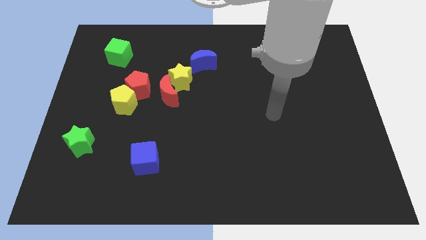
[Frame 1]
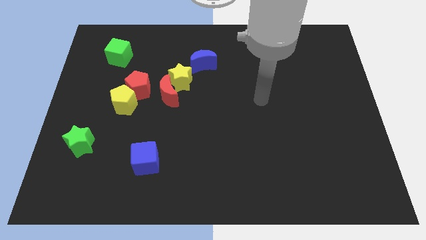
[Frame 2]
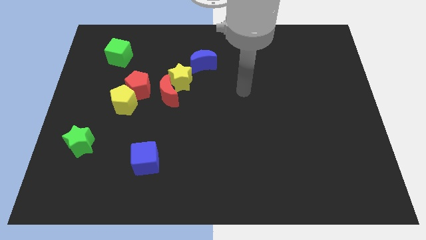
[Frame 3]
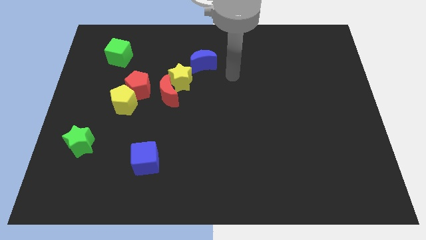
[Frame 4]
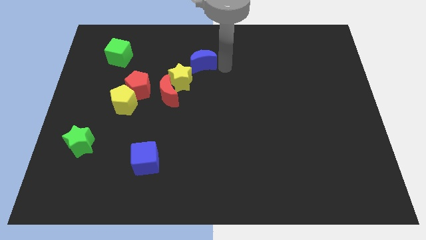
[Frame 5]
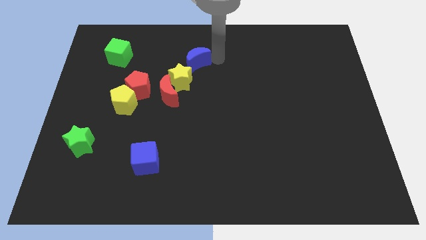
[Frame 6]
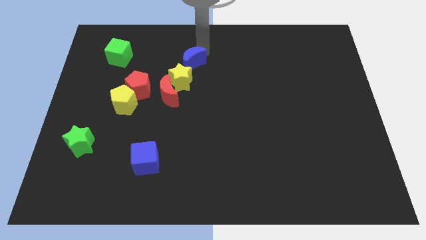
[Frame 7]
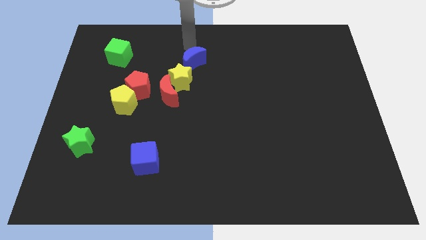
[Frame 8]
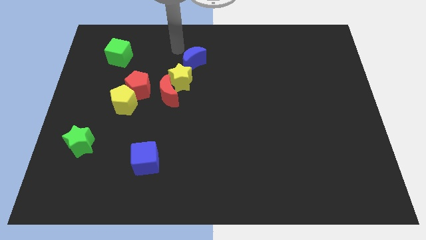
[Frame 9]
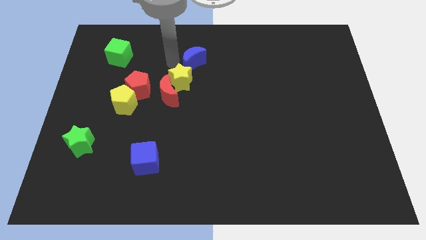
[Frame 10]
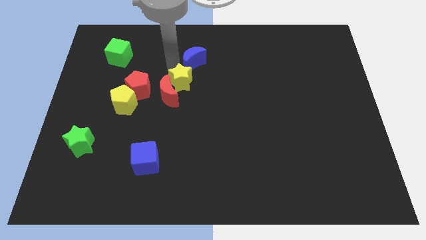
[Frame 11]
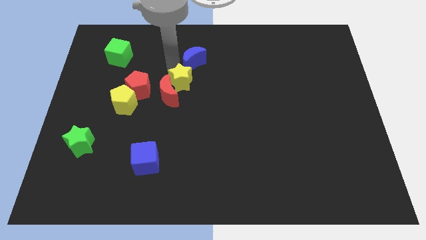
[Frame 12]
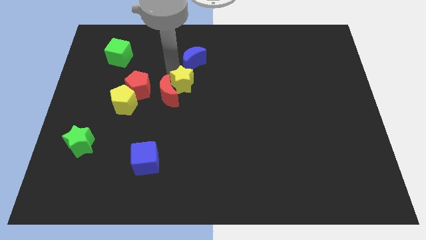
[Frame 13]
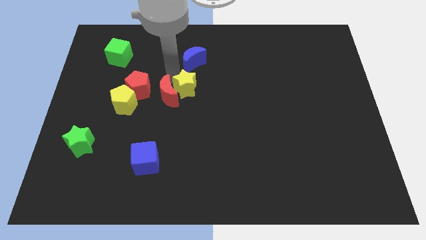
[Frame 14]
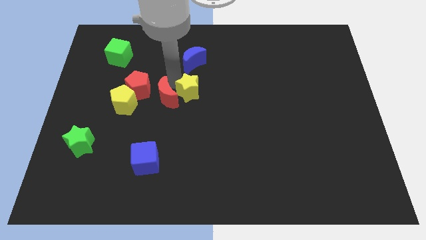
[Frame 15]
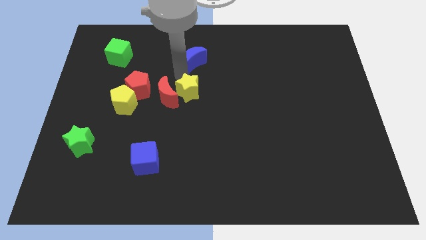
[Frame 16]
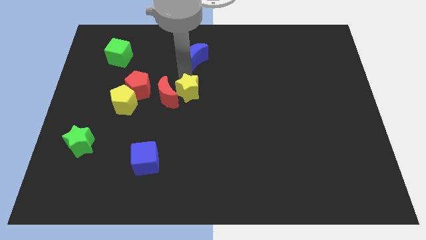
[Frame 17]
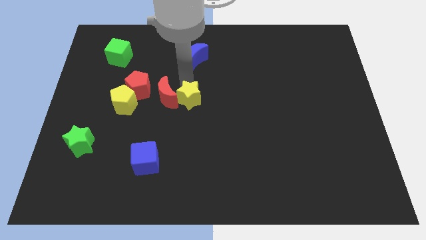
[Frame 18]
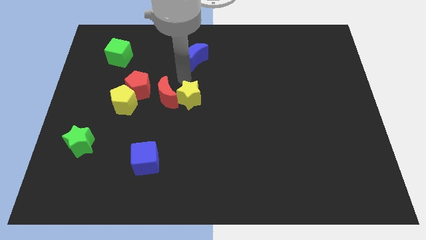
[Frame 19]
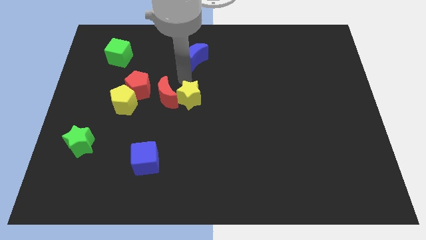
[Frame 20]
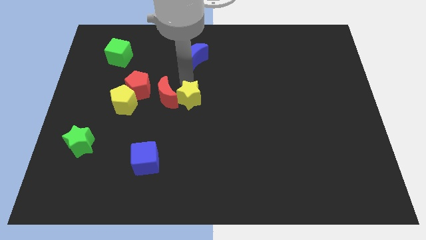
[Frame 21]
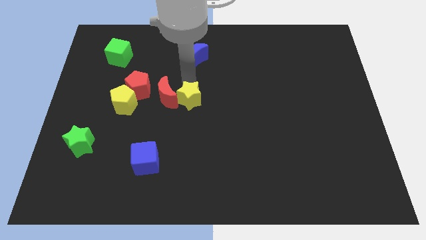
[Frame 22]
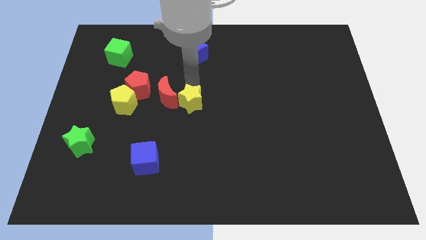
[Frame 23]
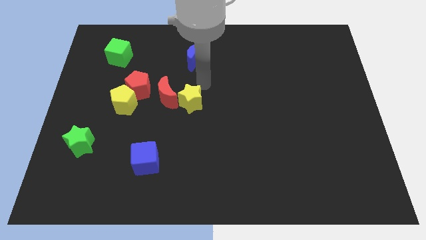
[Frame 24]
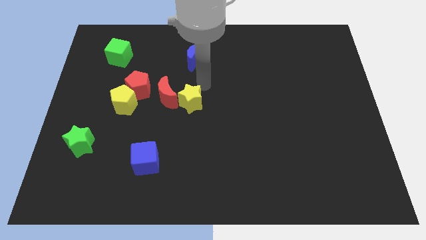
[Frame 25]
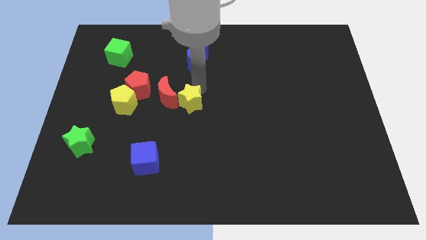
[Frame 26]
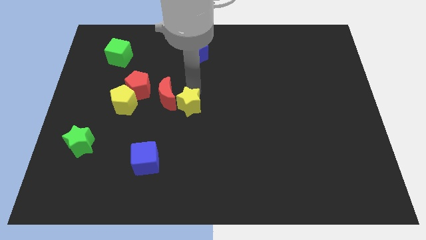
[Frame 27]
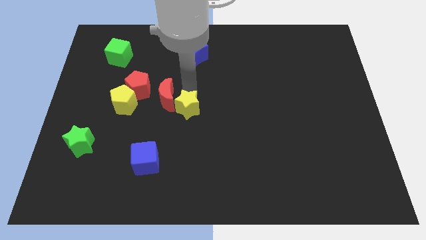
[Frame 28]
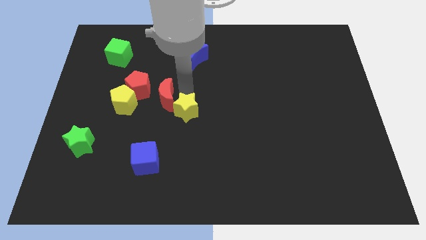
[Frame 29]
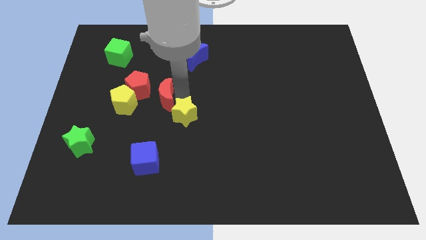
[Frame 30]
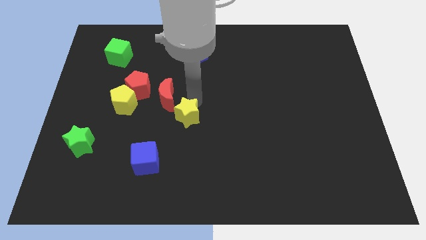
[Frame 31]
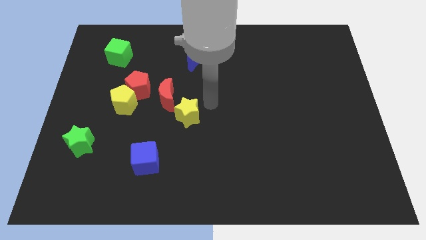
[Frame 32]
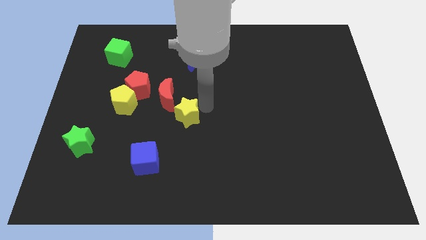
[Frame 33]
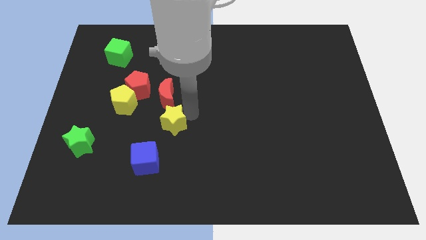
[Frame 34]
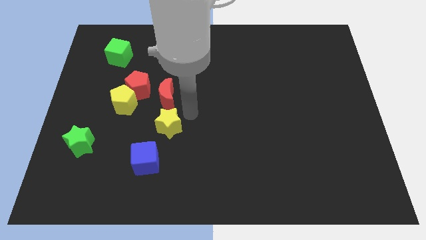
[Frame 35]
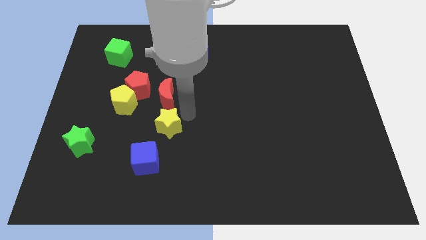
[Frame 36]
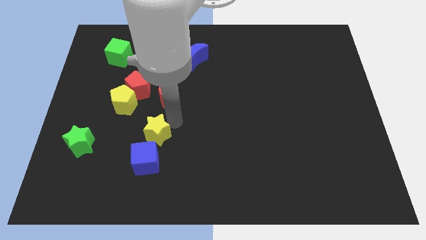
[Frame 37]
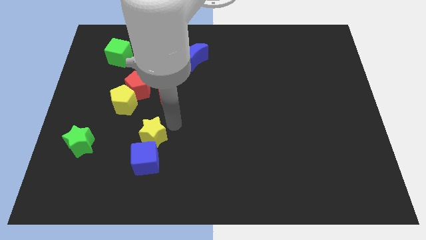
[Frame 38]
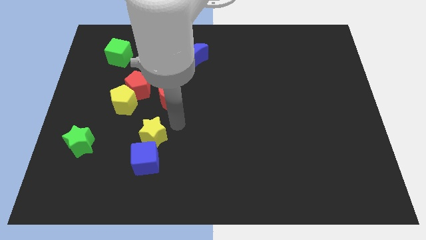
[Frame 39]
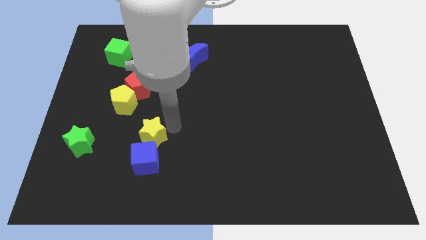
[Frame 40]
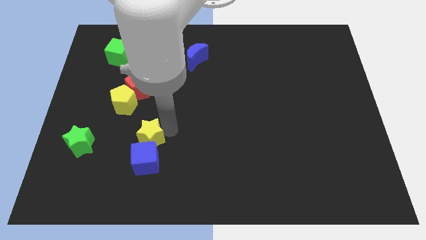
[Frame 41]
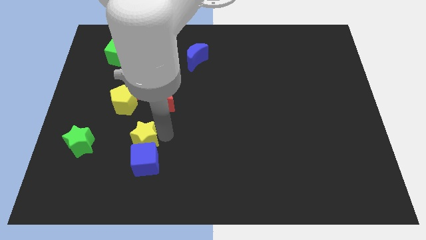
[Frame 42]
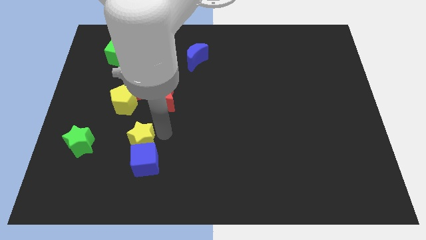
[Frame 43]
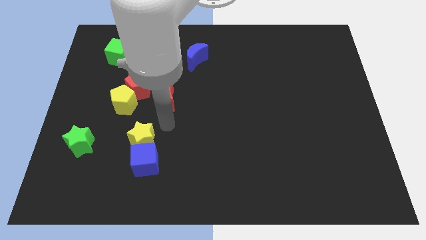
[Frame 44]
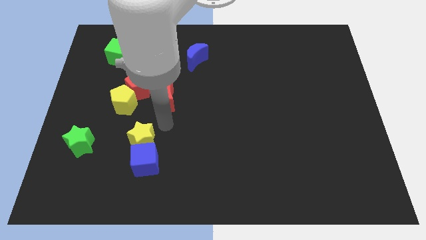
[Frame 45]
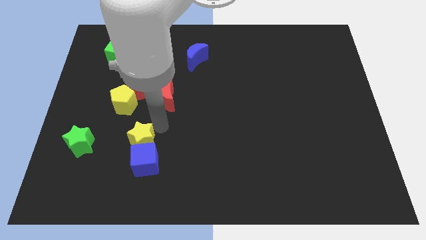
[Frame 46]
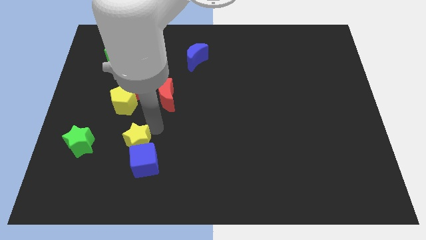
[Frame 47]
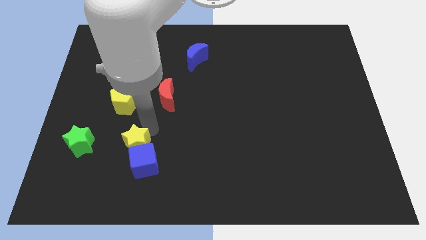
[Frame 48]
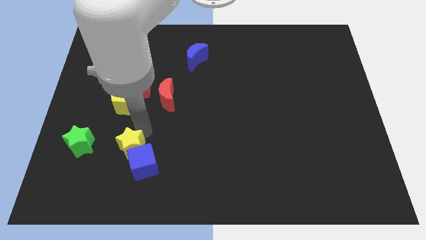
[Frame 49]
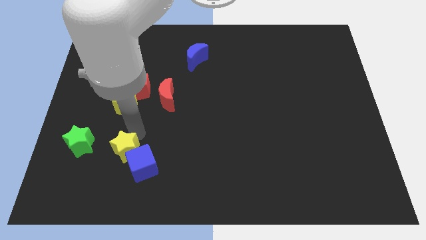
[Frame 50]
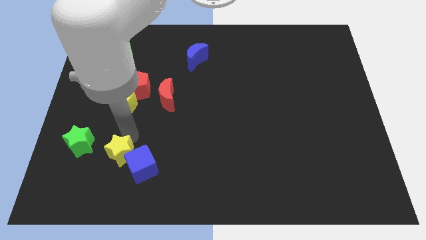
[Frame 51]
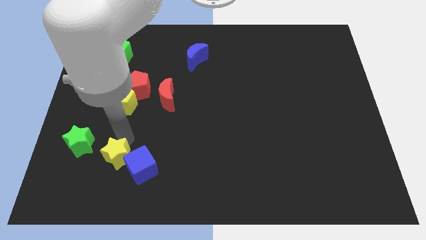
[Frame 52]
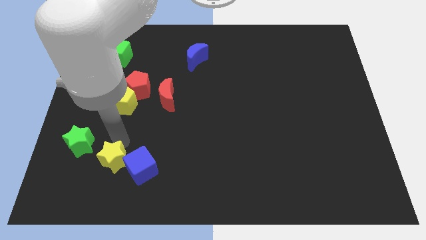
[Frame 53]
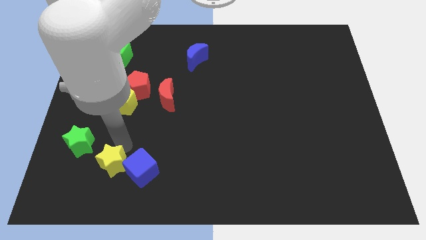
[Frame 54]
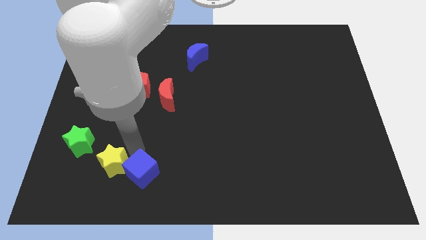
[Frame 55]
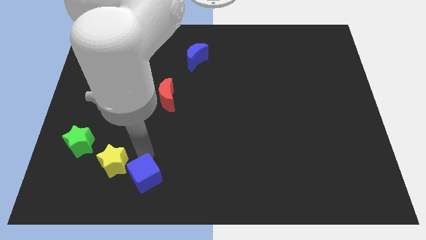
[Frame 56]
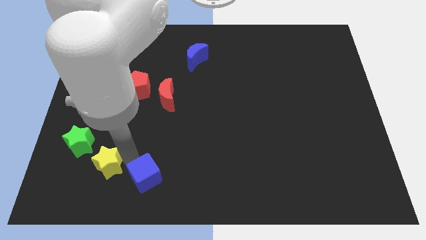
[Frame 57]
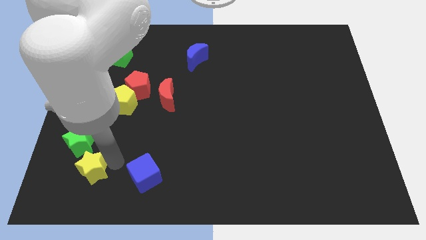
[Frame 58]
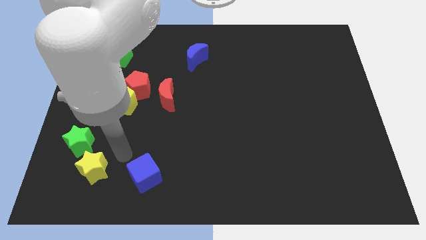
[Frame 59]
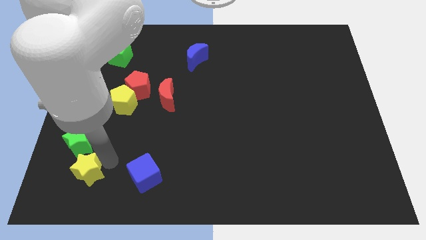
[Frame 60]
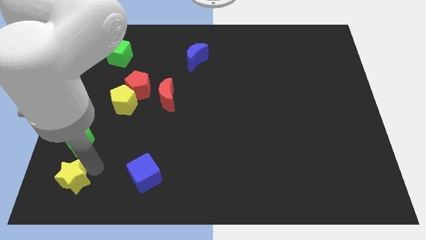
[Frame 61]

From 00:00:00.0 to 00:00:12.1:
push the yellow star to the bottom left corner
